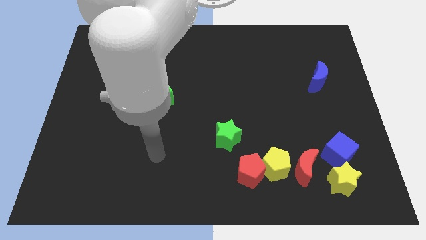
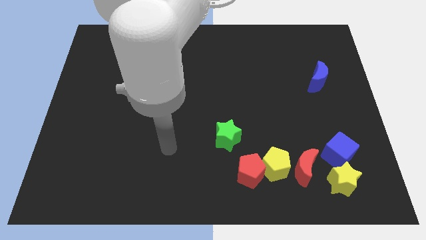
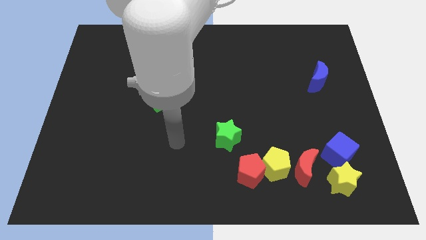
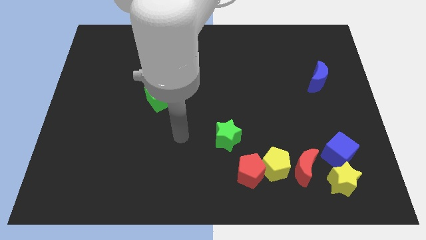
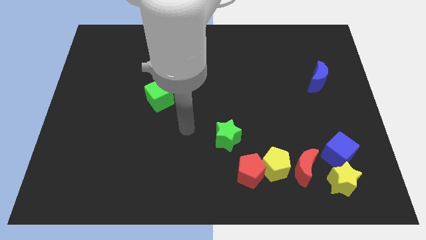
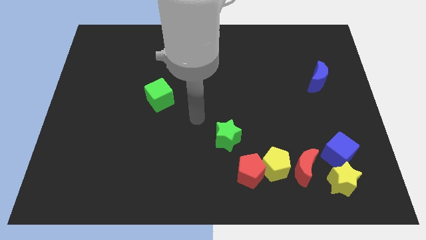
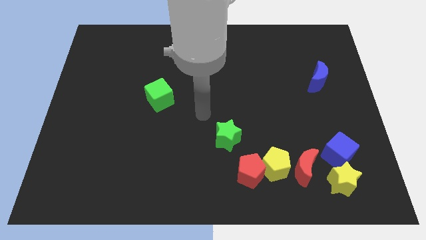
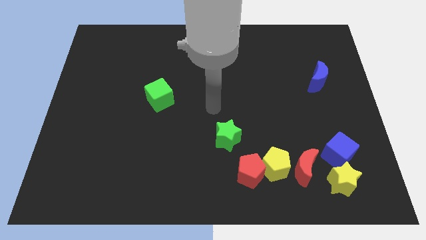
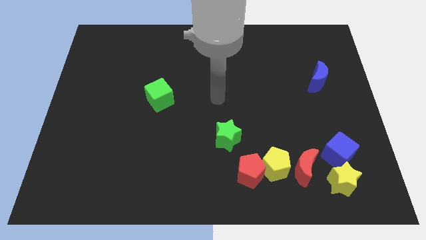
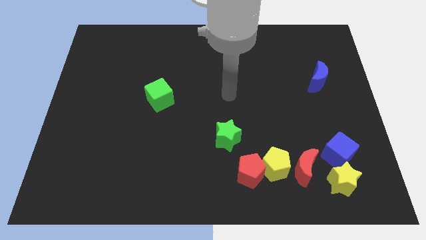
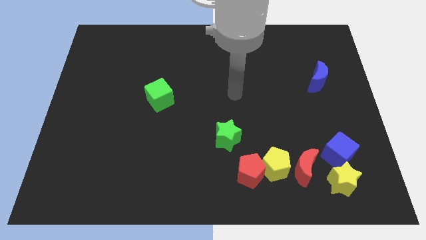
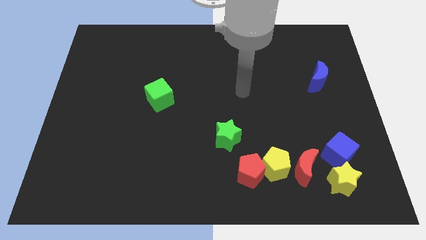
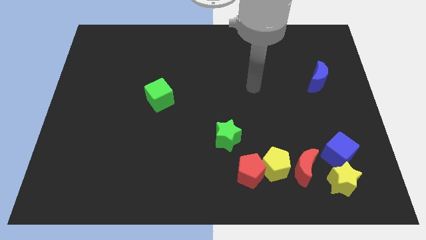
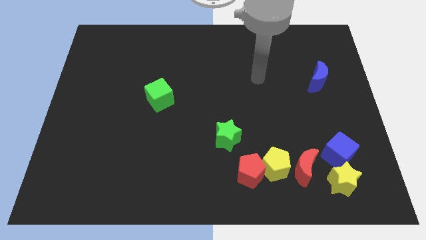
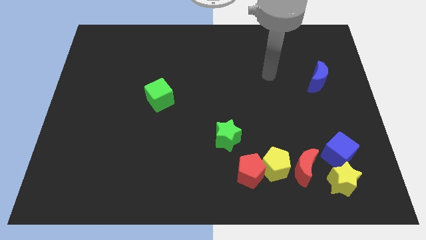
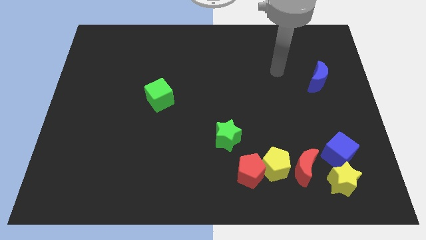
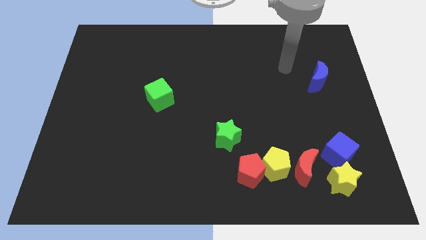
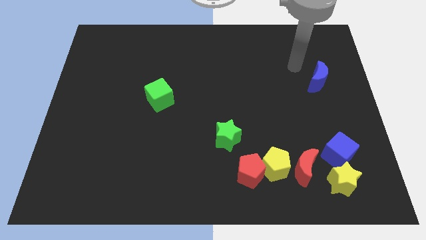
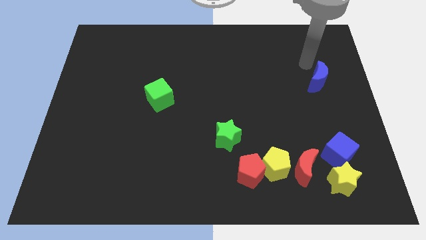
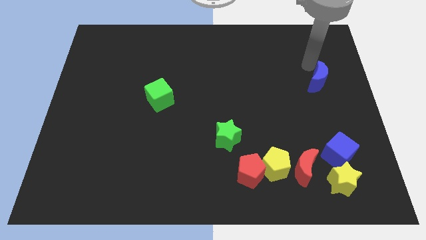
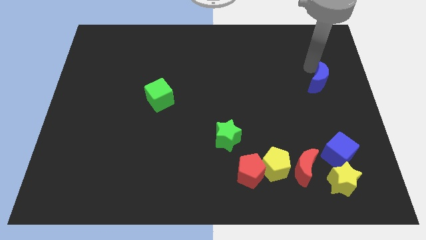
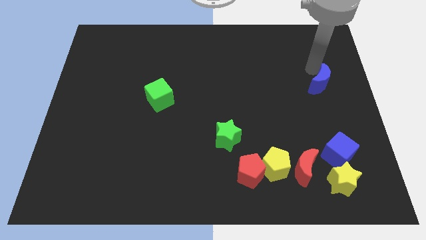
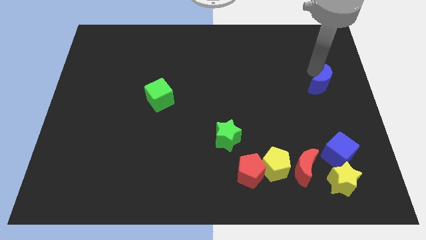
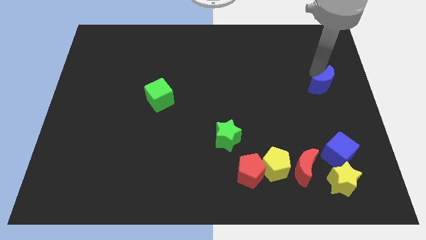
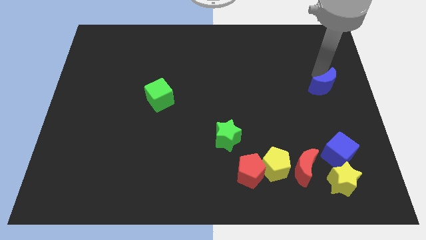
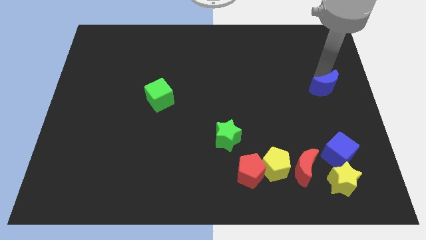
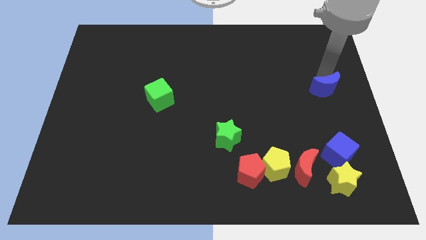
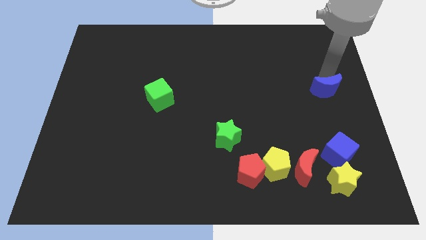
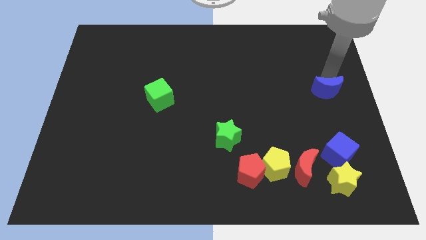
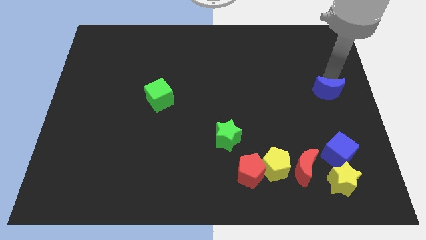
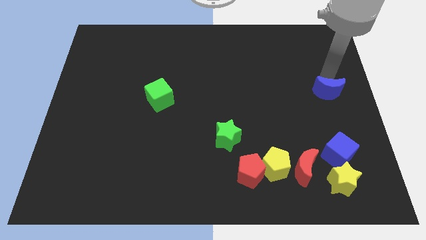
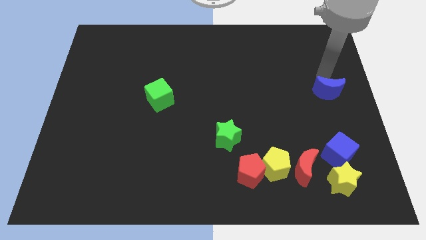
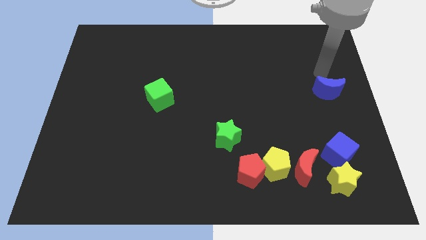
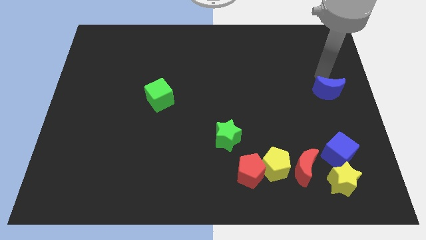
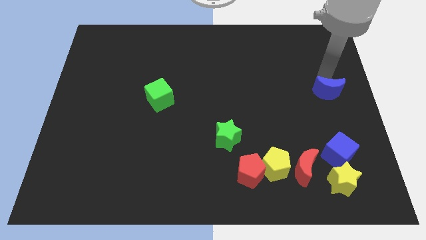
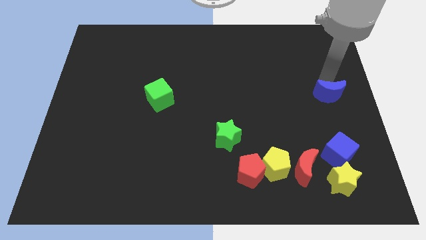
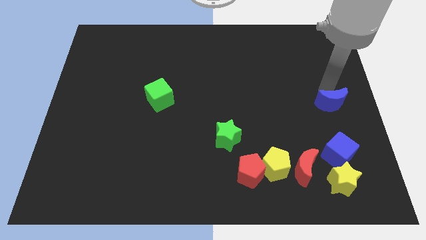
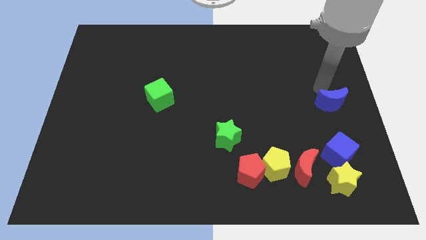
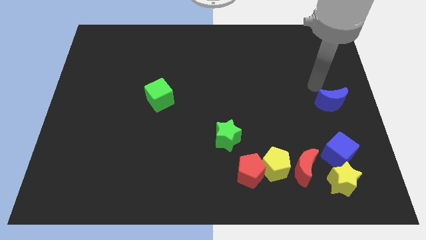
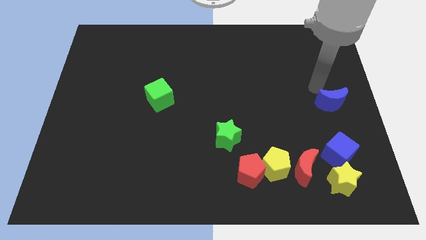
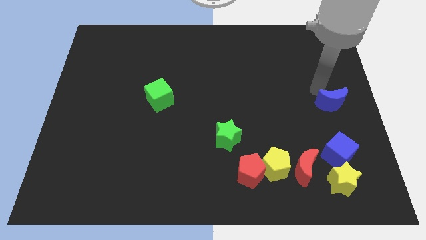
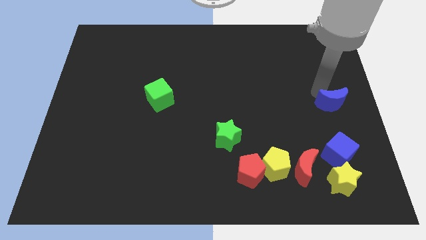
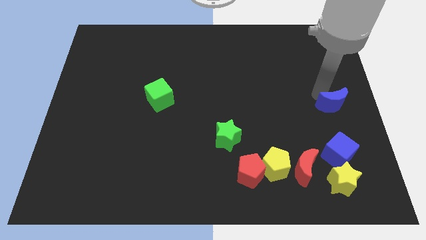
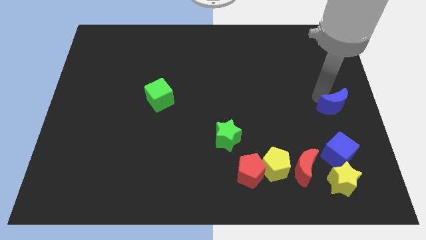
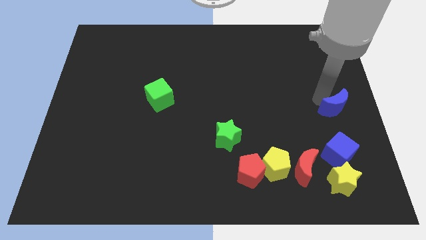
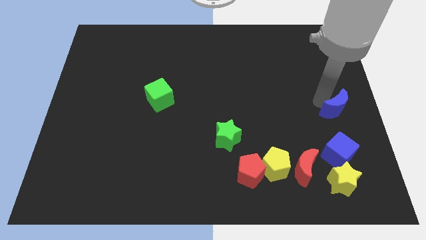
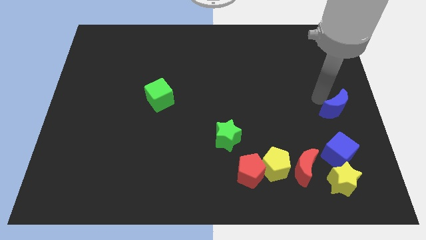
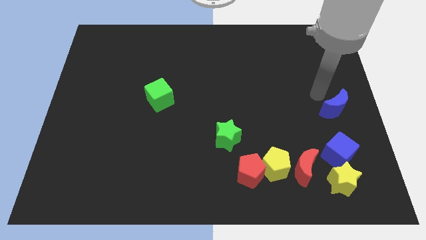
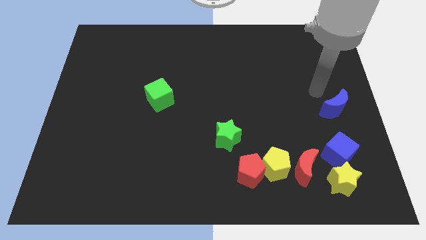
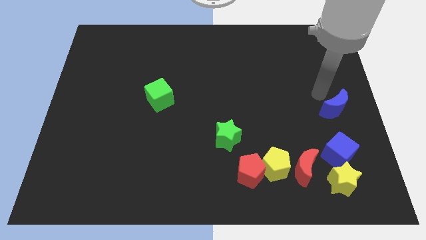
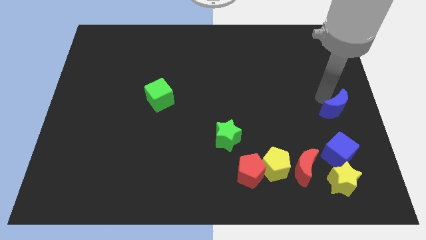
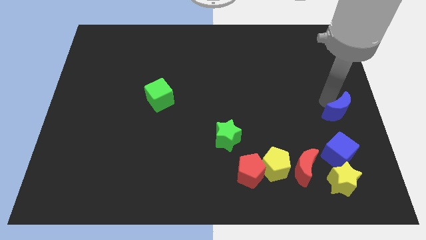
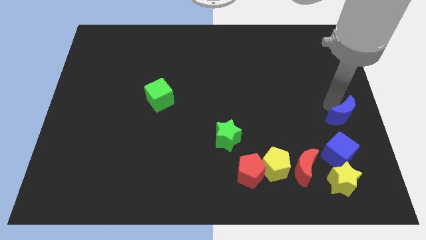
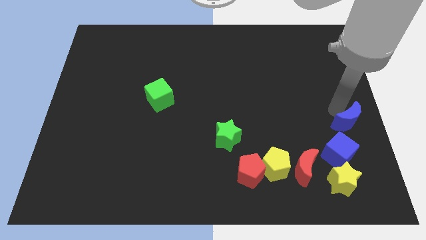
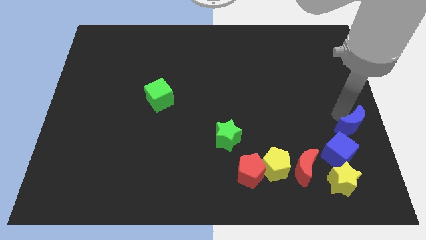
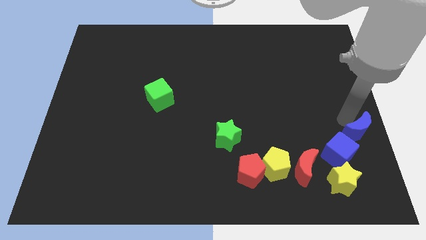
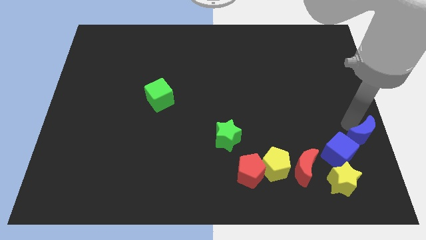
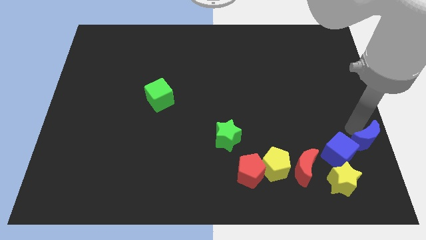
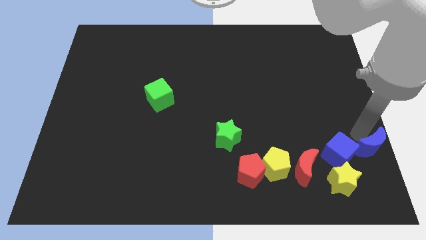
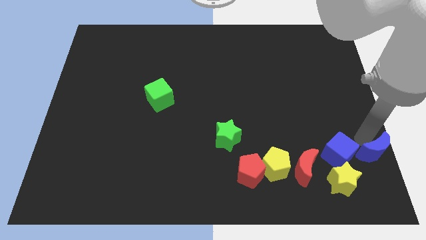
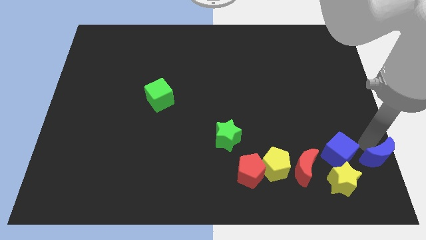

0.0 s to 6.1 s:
slide the blue moon to the lower right corner

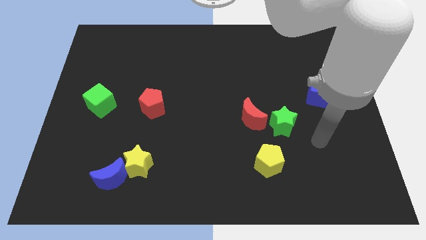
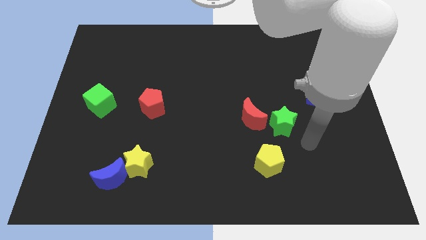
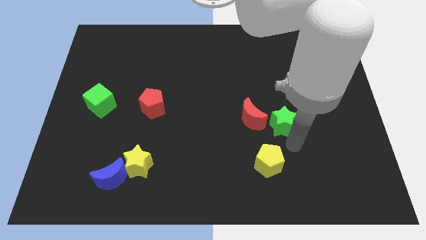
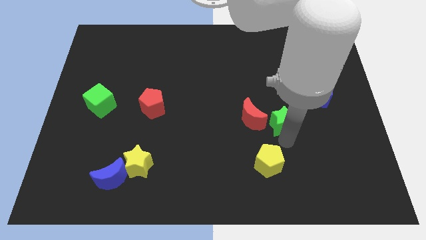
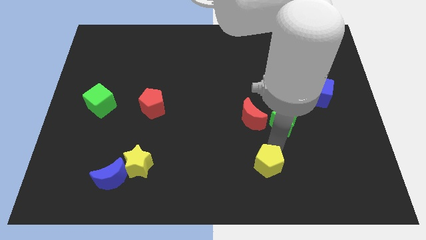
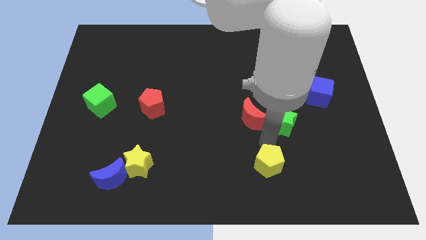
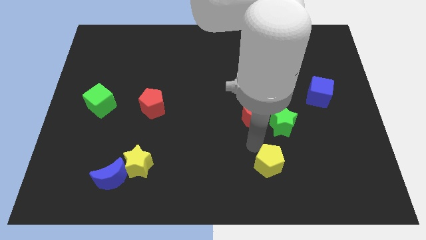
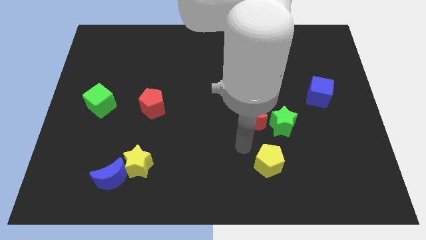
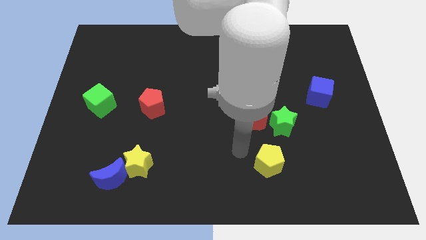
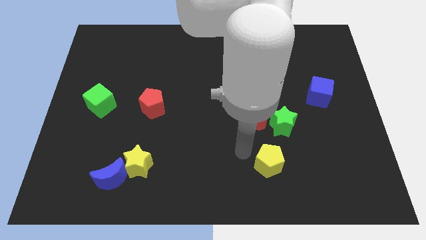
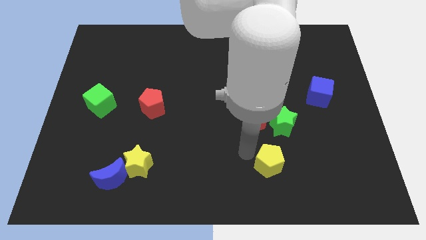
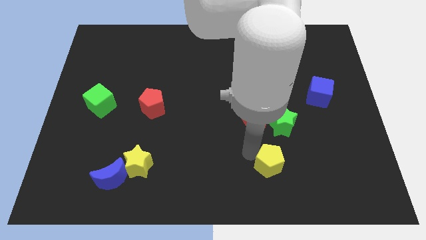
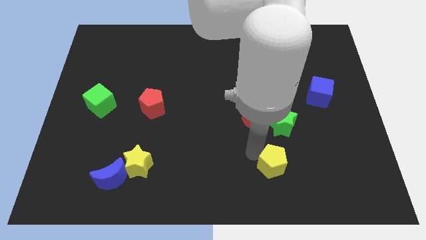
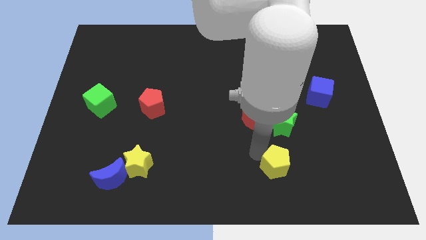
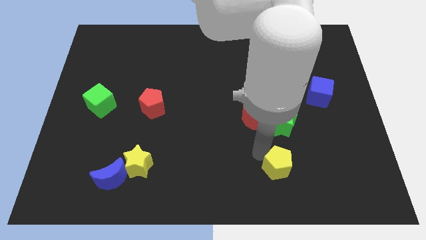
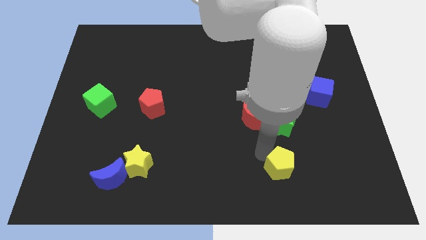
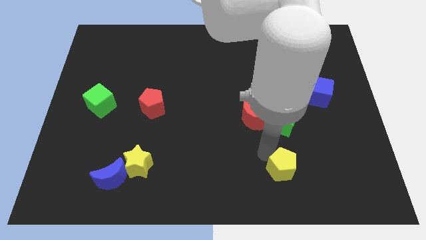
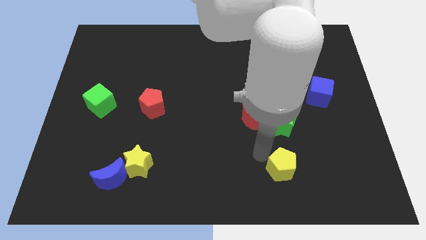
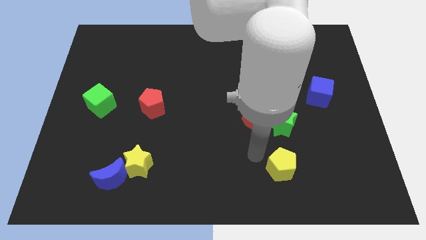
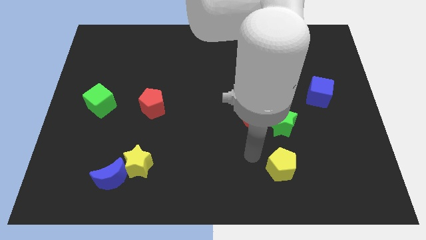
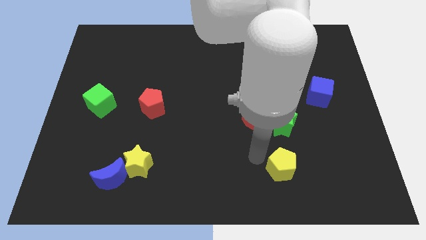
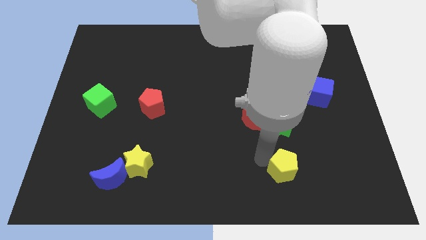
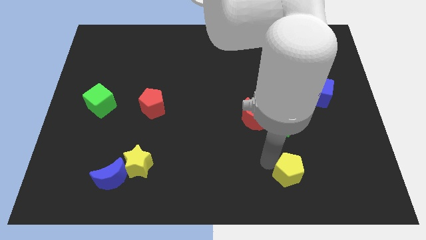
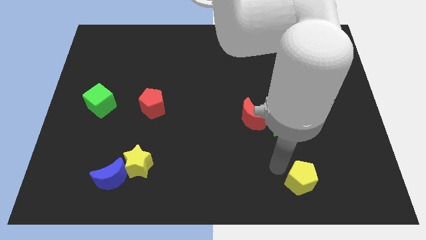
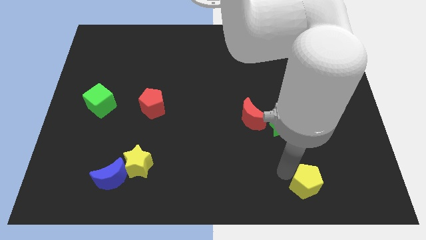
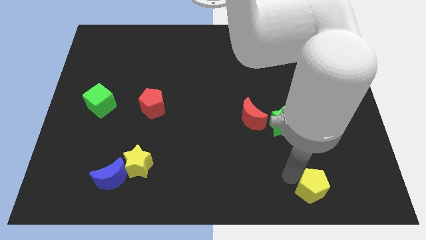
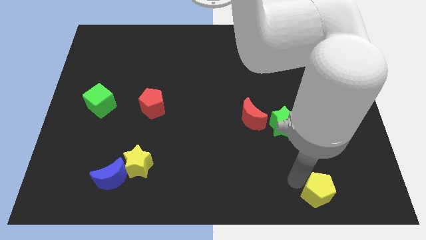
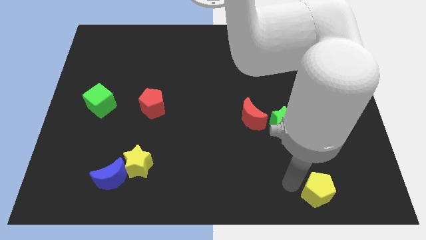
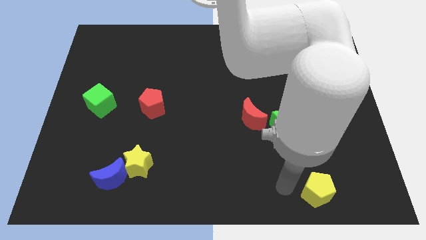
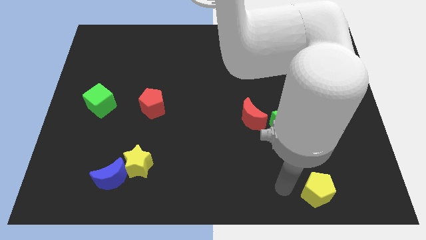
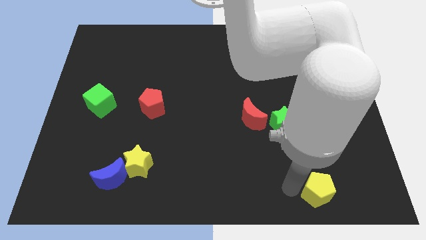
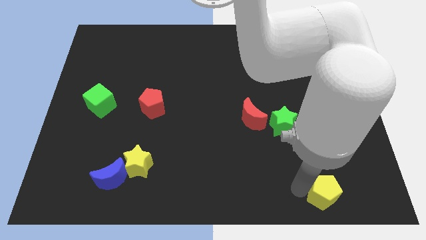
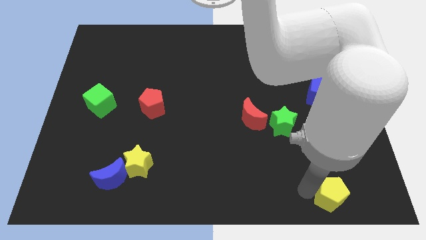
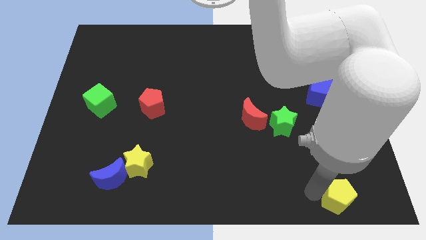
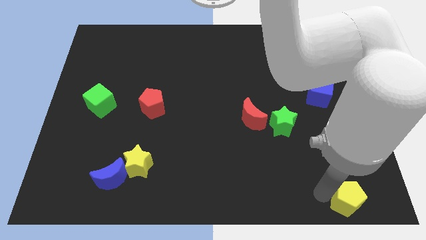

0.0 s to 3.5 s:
push the yellow pentagon to the bottom right
